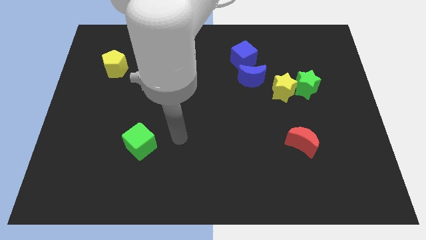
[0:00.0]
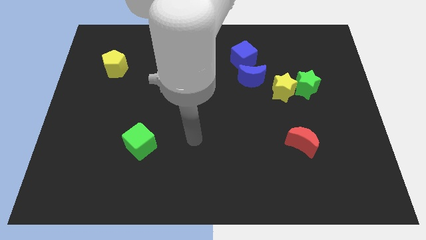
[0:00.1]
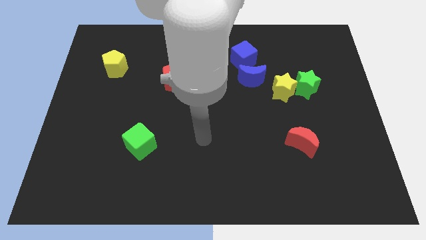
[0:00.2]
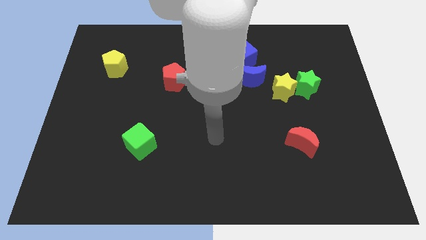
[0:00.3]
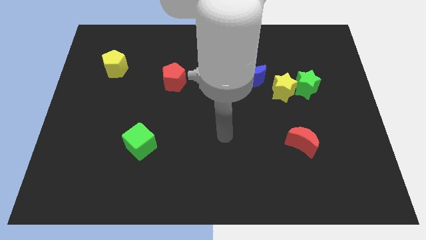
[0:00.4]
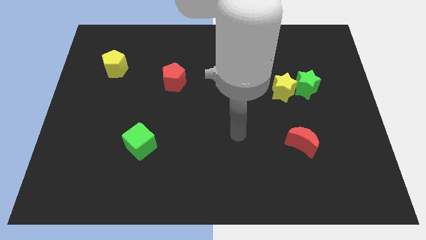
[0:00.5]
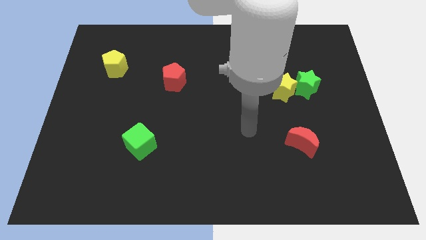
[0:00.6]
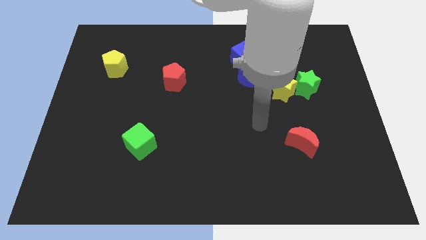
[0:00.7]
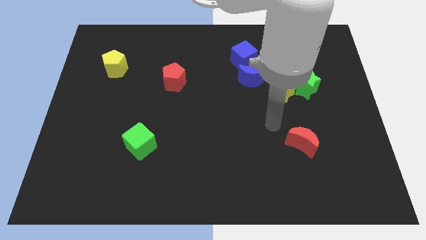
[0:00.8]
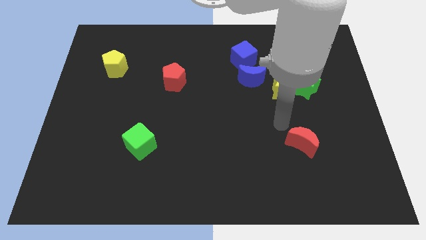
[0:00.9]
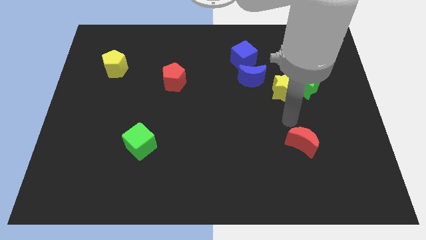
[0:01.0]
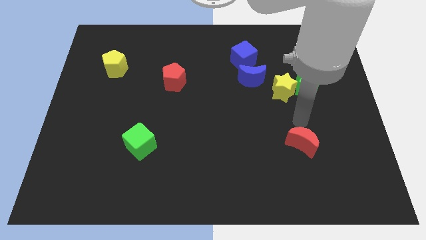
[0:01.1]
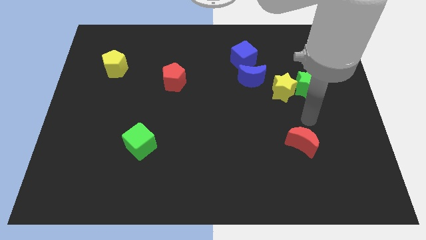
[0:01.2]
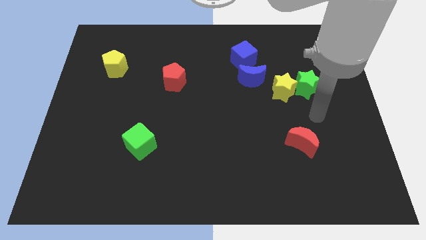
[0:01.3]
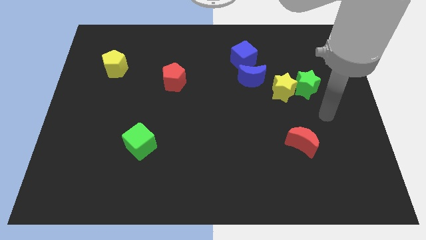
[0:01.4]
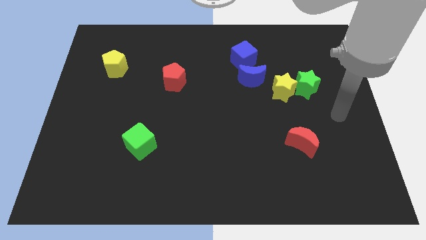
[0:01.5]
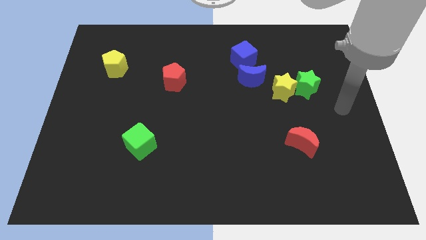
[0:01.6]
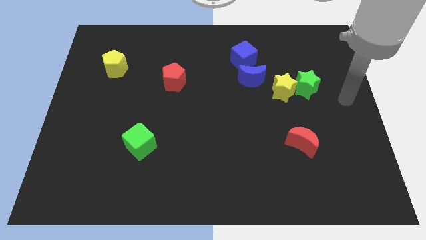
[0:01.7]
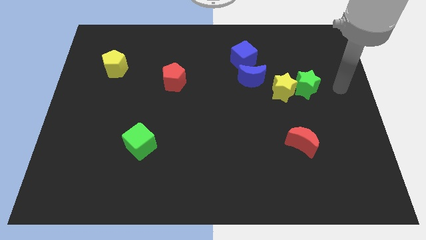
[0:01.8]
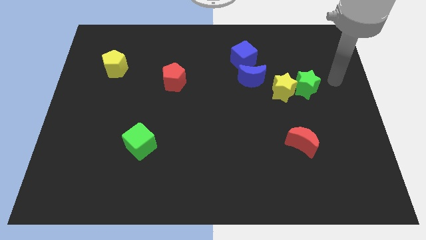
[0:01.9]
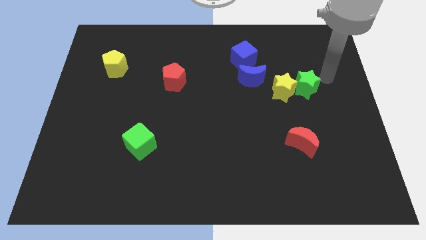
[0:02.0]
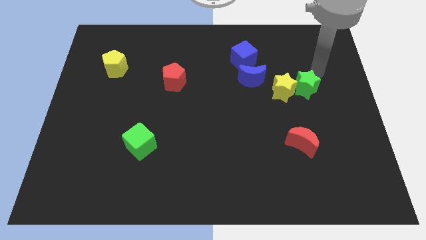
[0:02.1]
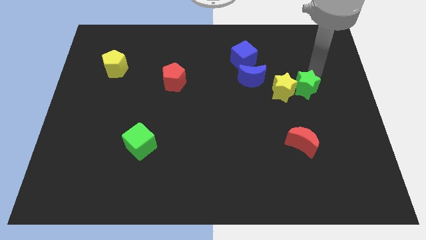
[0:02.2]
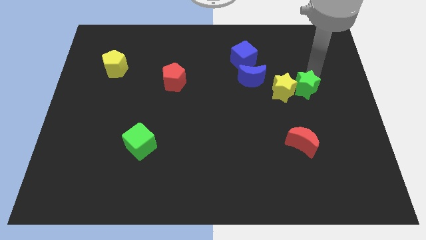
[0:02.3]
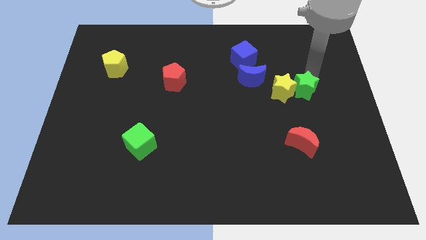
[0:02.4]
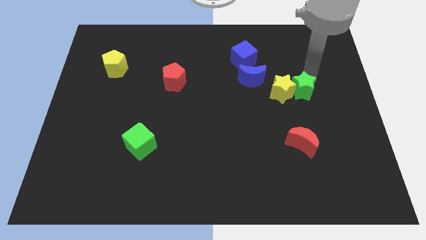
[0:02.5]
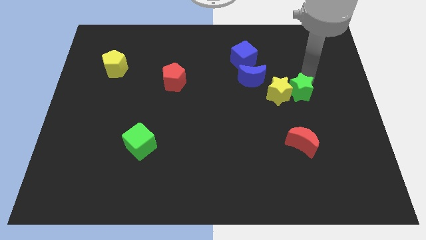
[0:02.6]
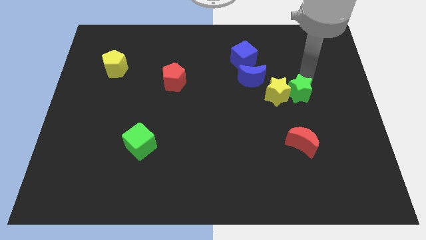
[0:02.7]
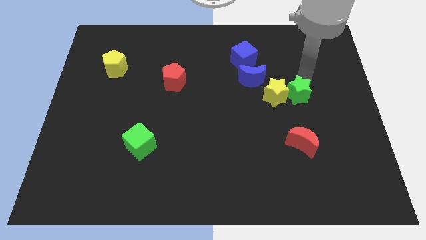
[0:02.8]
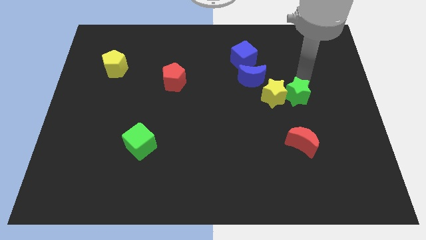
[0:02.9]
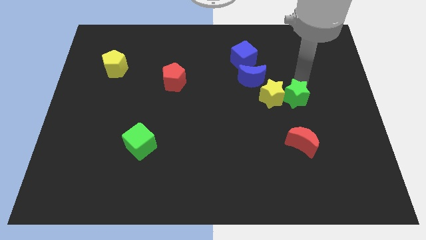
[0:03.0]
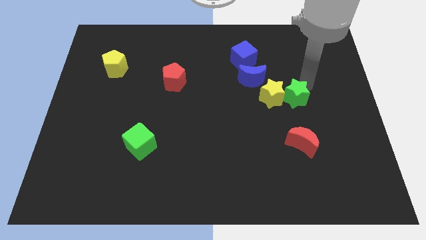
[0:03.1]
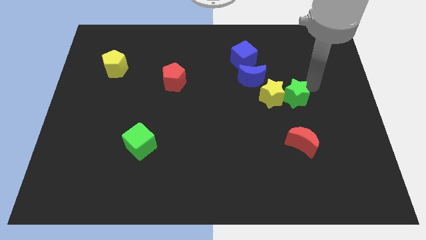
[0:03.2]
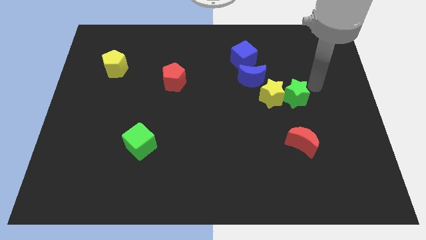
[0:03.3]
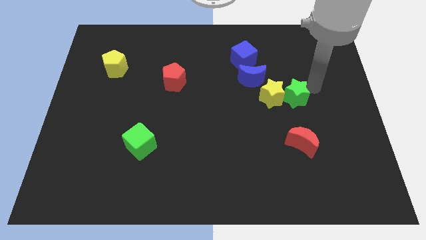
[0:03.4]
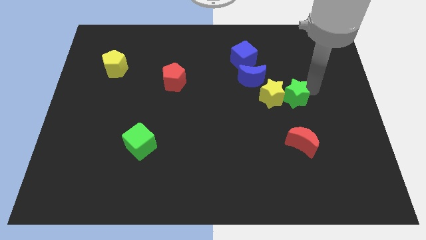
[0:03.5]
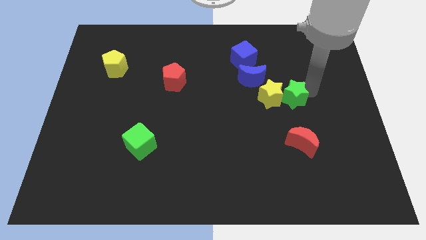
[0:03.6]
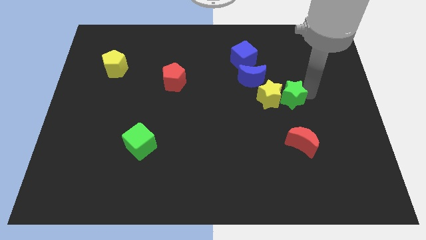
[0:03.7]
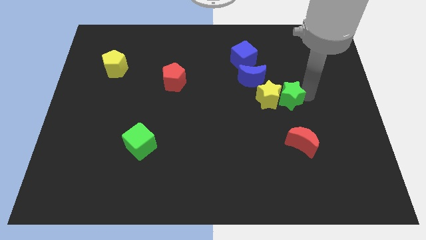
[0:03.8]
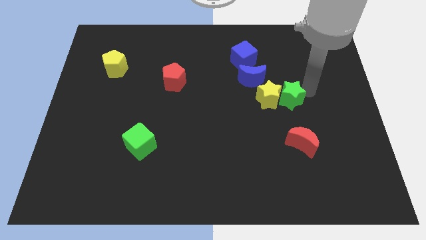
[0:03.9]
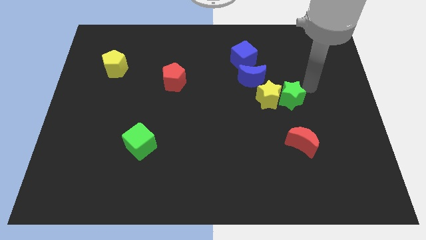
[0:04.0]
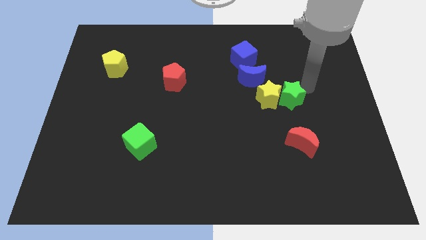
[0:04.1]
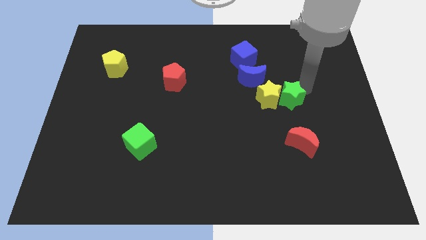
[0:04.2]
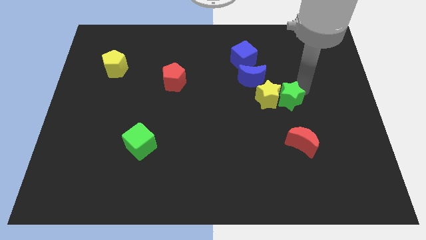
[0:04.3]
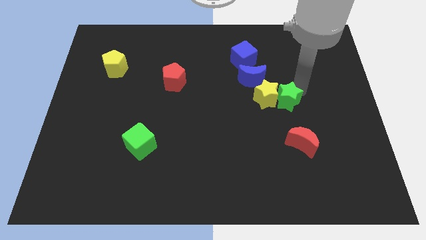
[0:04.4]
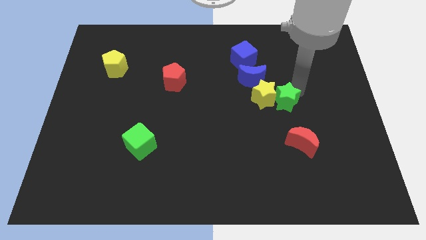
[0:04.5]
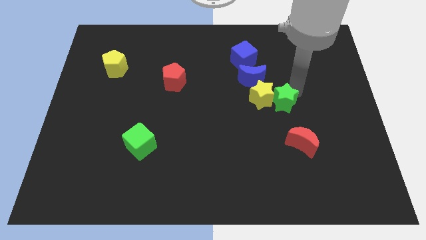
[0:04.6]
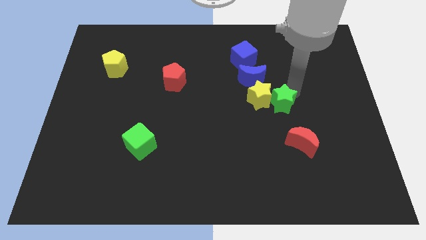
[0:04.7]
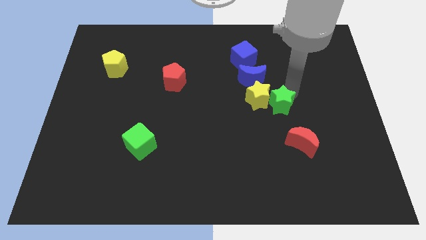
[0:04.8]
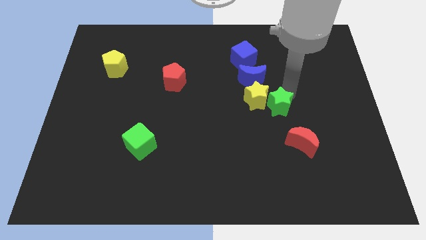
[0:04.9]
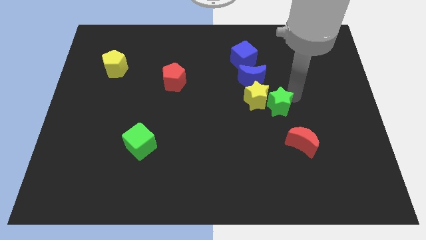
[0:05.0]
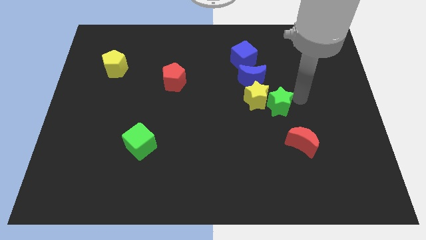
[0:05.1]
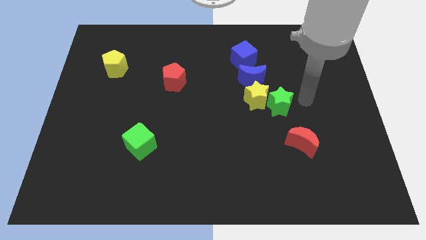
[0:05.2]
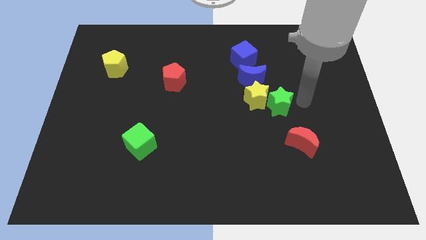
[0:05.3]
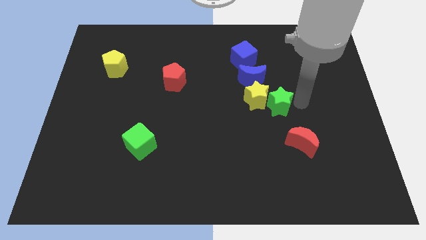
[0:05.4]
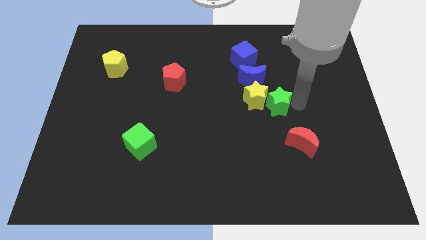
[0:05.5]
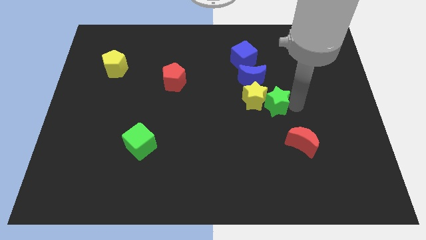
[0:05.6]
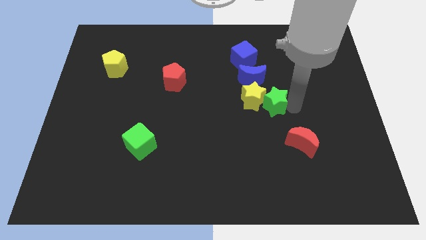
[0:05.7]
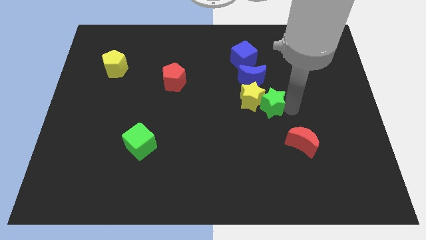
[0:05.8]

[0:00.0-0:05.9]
slide the green star to the bottom side of the blue moon

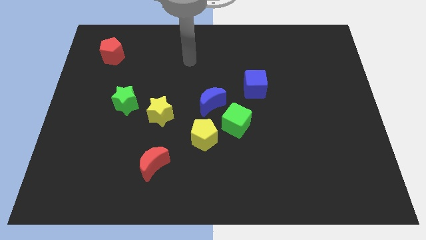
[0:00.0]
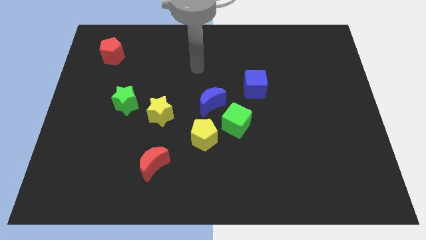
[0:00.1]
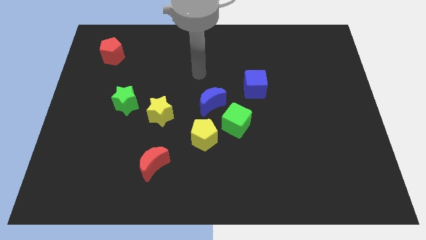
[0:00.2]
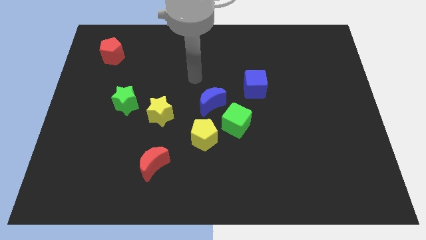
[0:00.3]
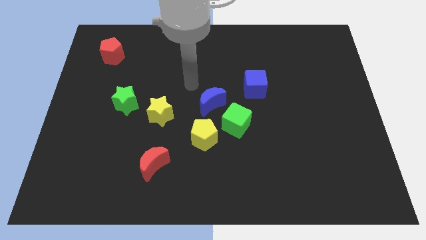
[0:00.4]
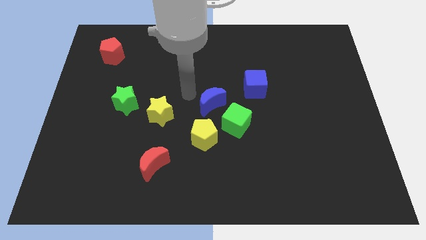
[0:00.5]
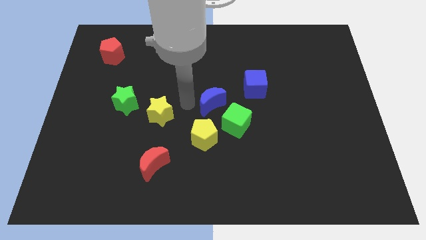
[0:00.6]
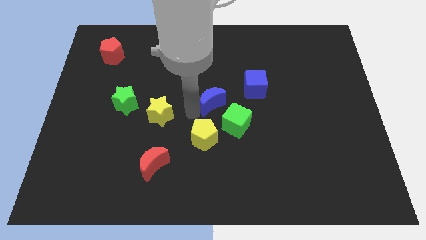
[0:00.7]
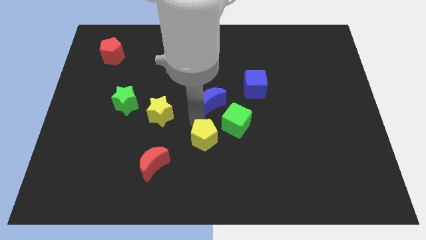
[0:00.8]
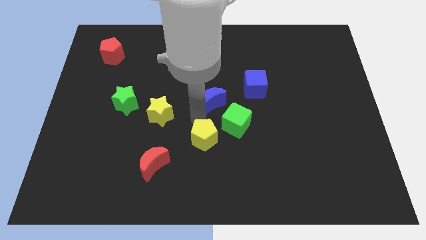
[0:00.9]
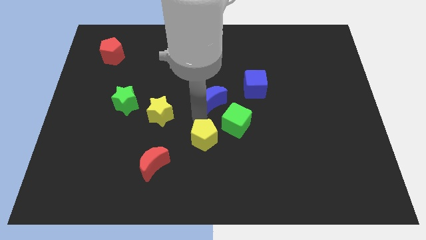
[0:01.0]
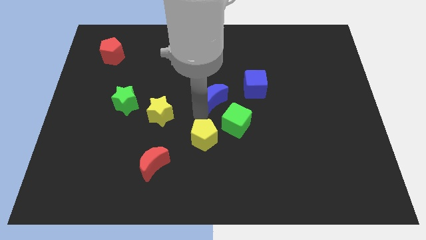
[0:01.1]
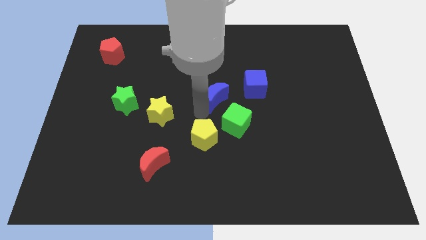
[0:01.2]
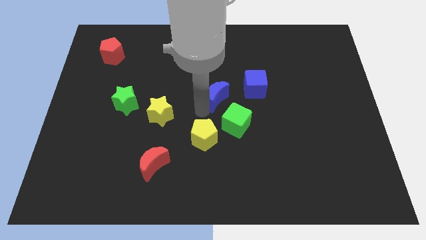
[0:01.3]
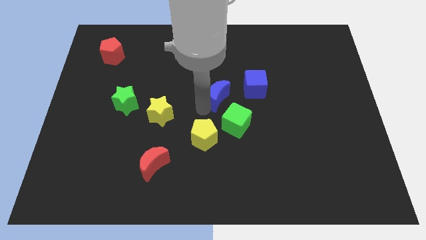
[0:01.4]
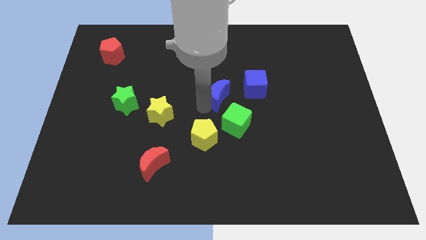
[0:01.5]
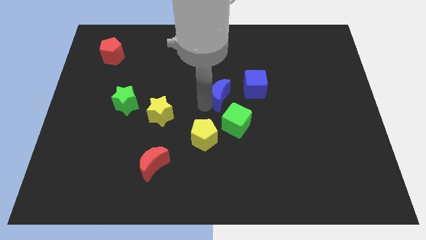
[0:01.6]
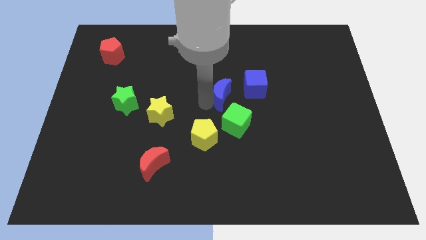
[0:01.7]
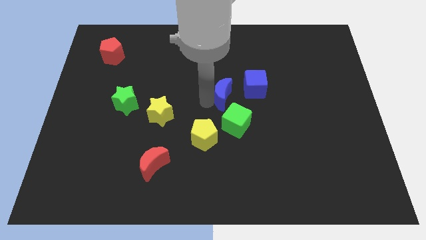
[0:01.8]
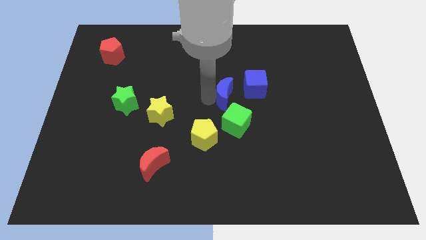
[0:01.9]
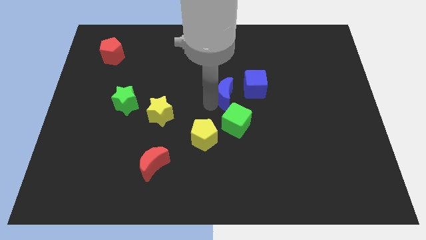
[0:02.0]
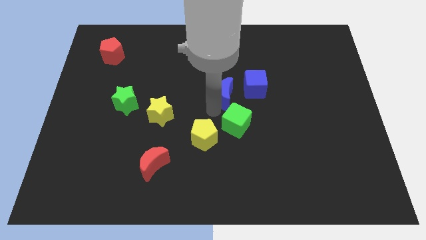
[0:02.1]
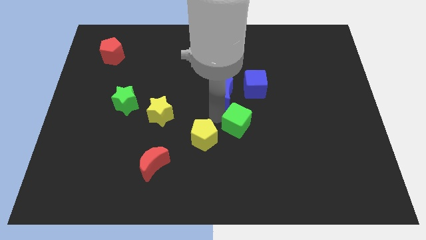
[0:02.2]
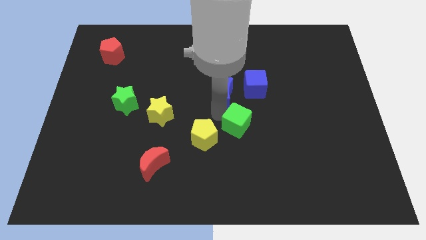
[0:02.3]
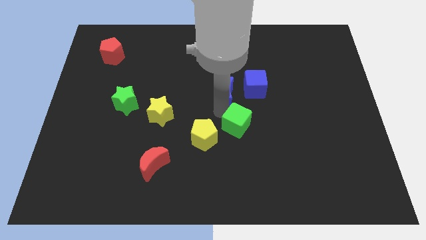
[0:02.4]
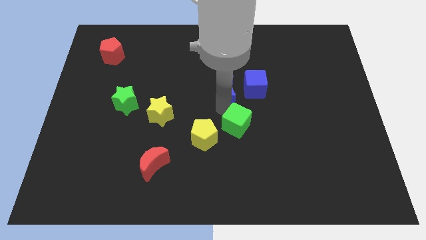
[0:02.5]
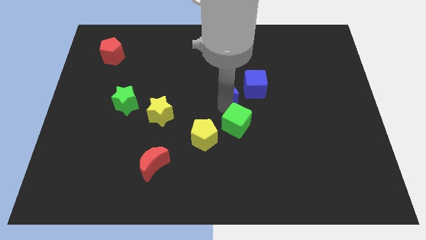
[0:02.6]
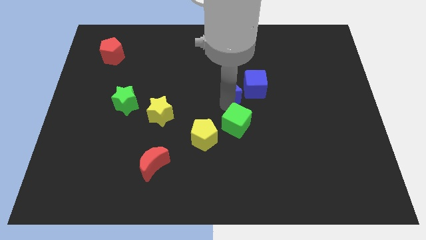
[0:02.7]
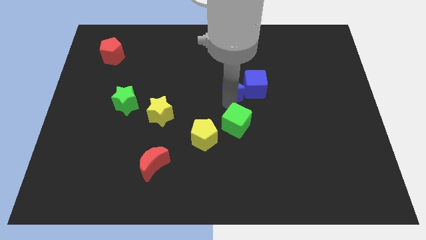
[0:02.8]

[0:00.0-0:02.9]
put the blue moon to the top left of the blue cube
